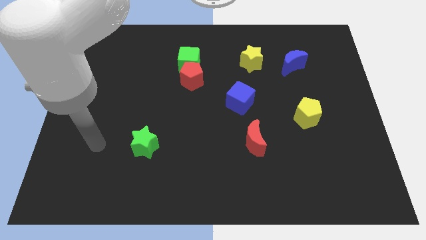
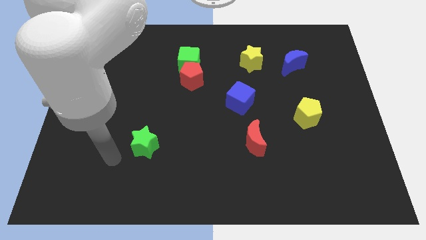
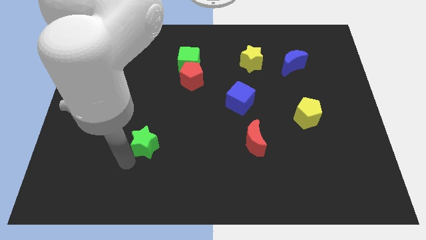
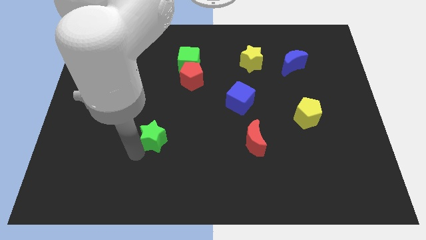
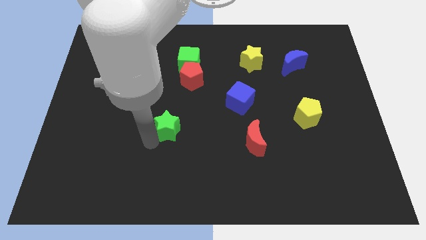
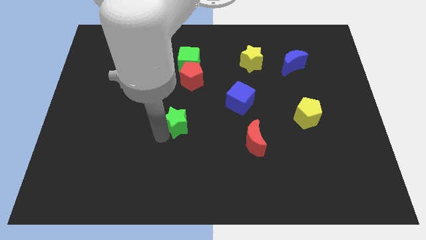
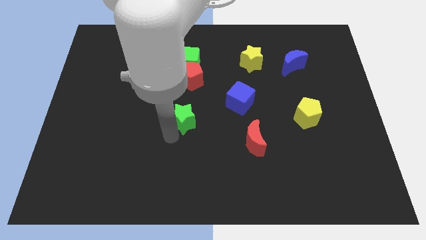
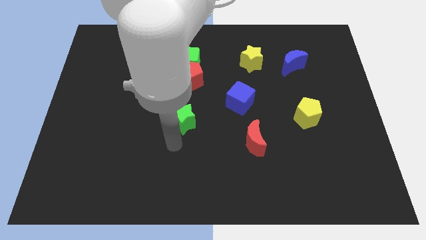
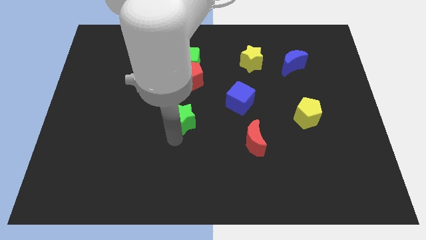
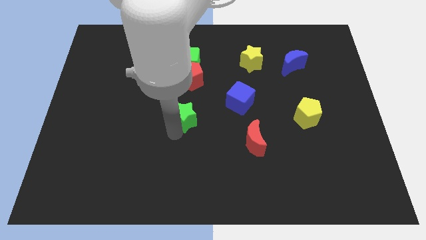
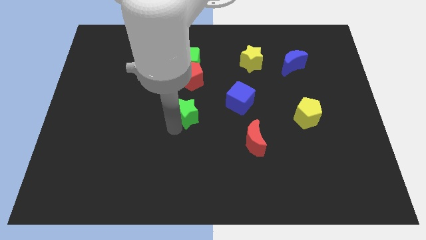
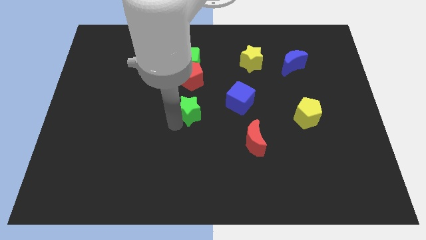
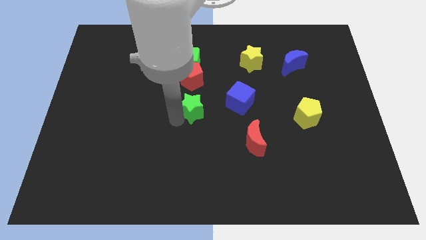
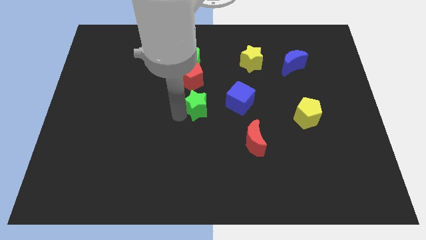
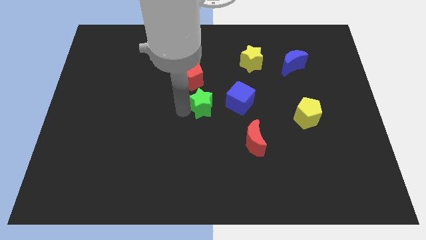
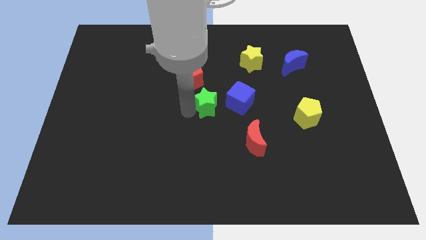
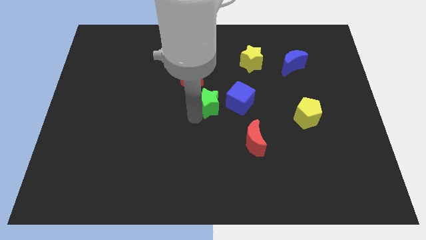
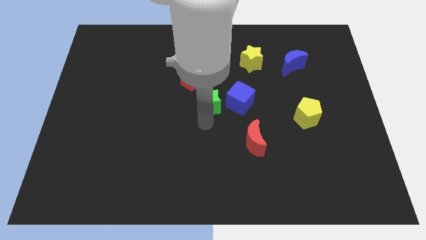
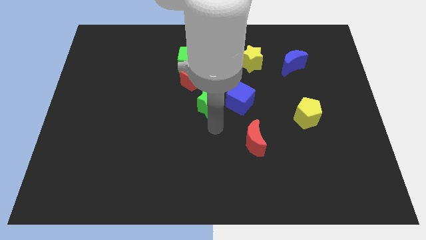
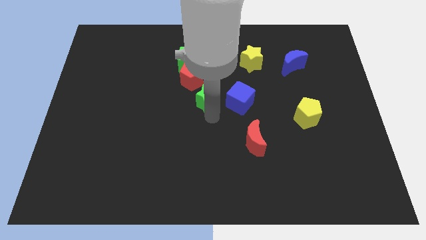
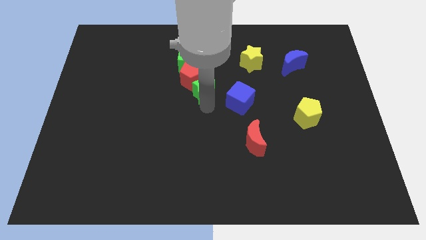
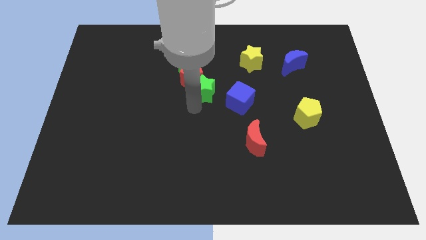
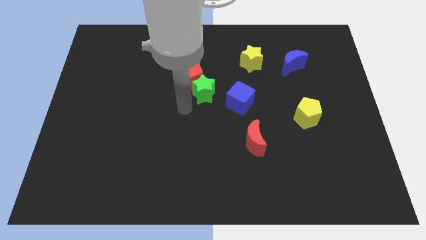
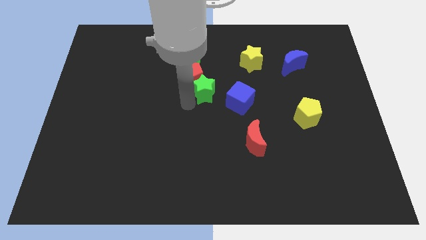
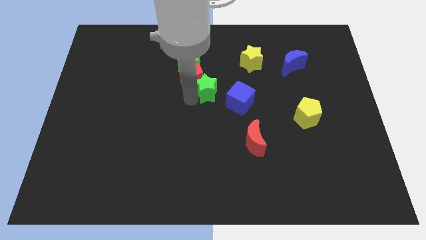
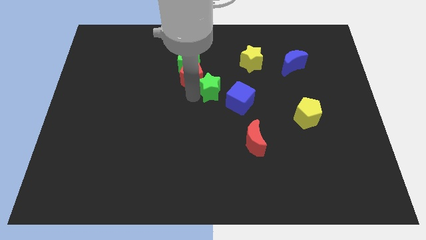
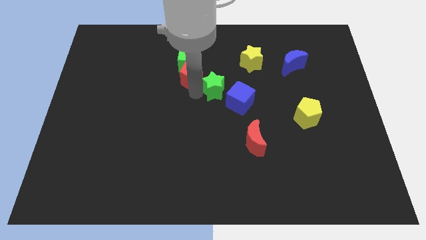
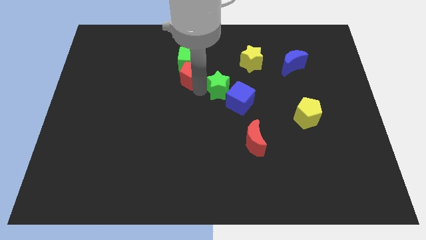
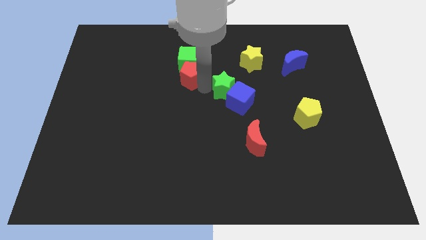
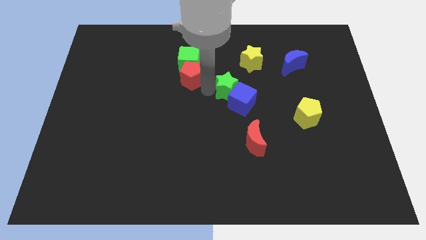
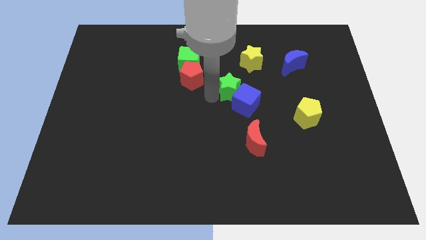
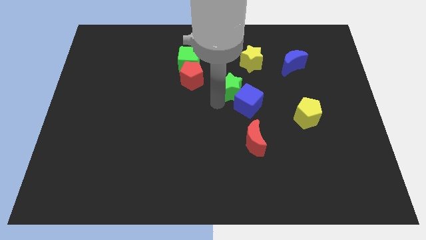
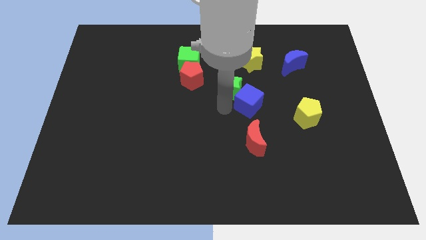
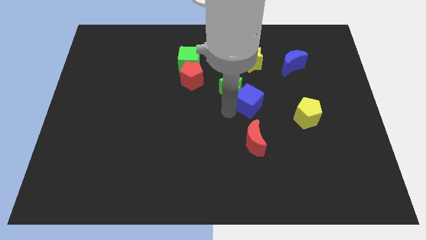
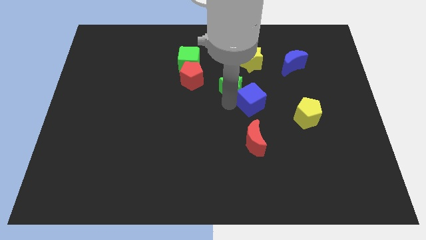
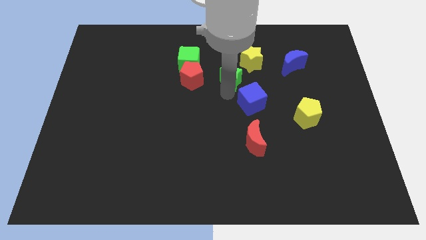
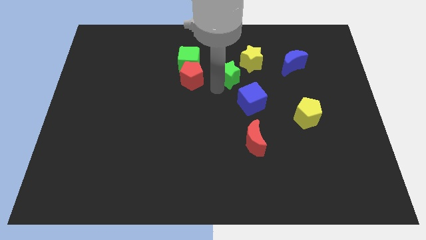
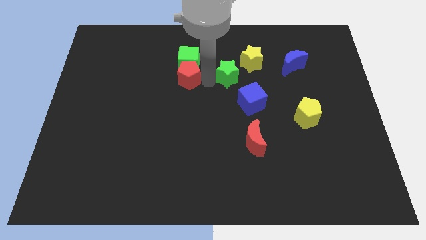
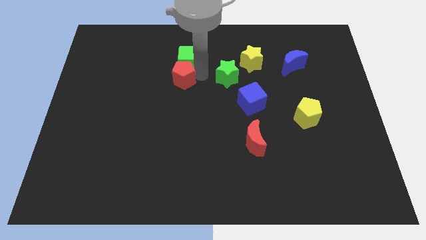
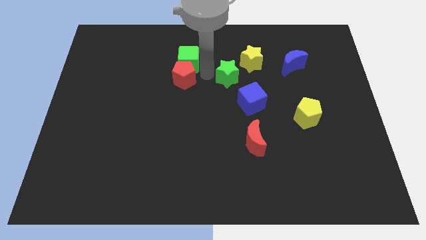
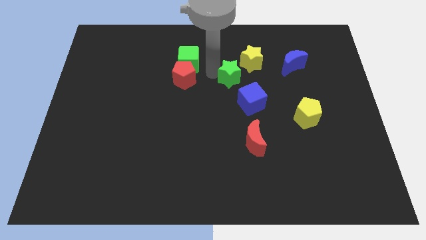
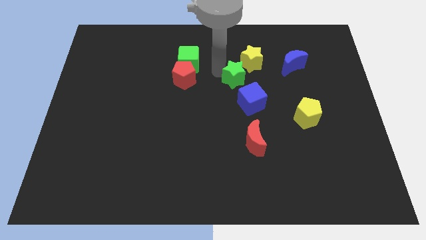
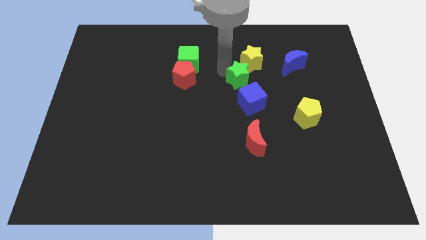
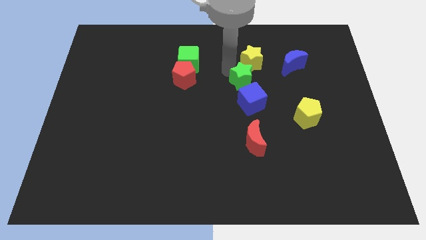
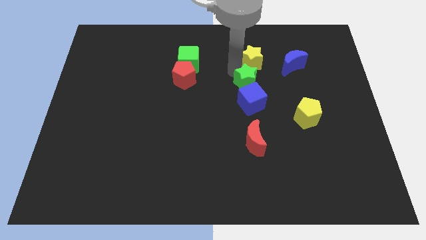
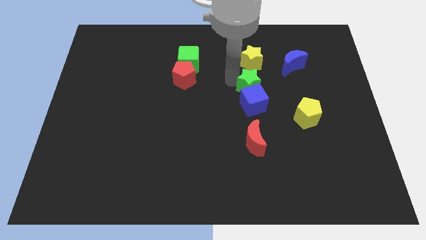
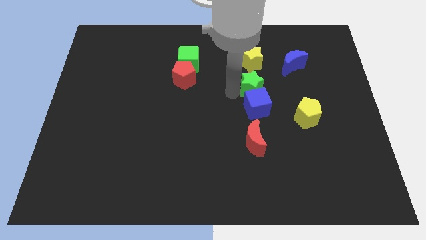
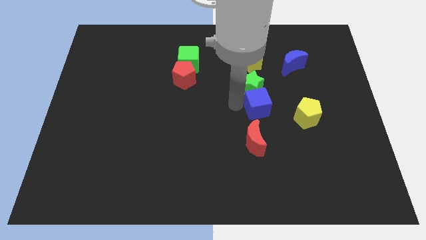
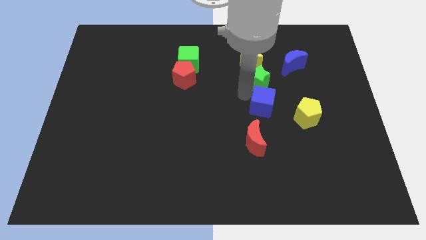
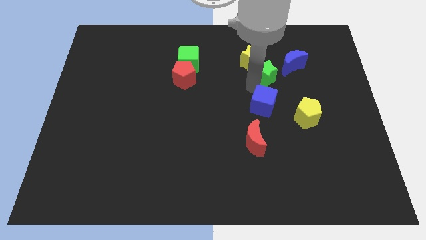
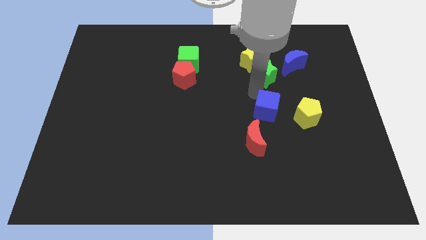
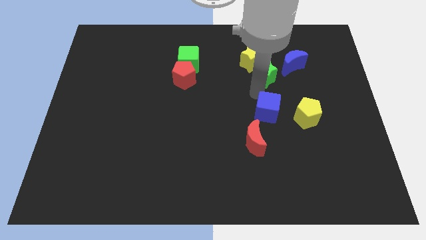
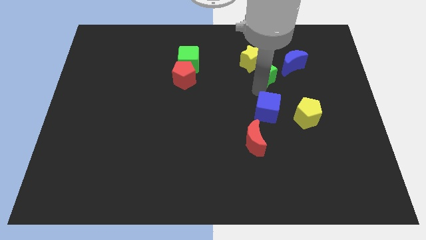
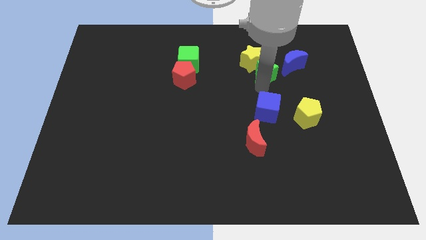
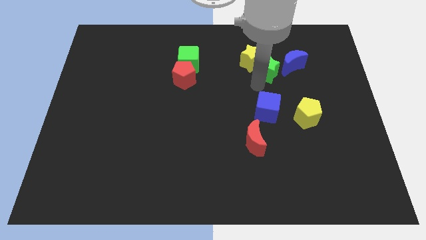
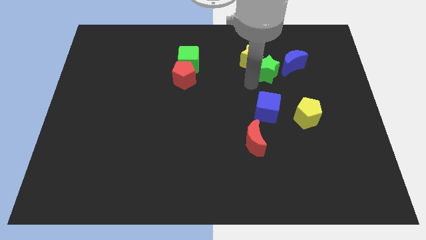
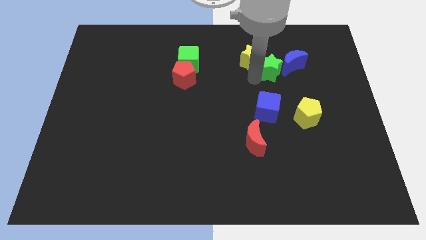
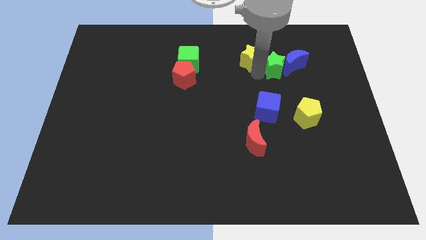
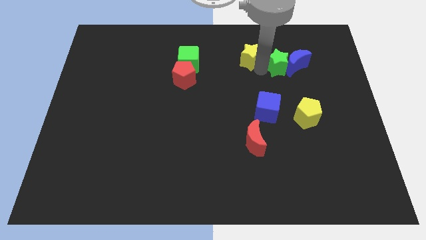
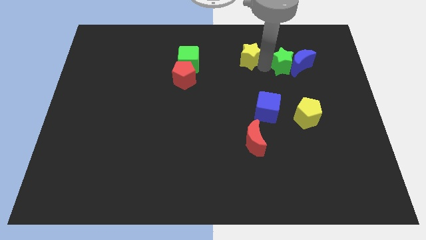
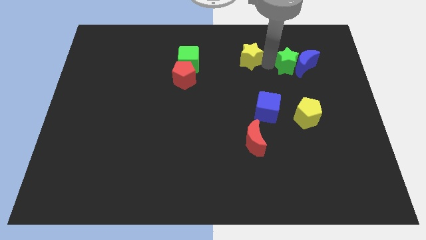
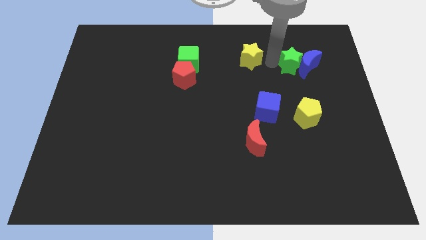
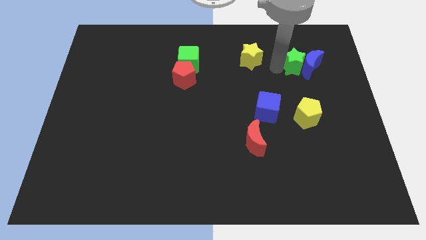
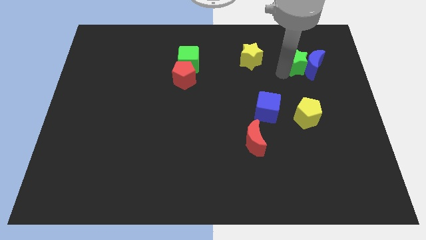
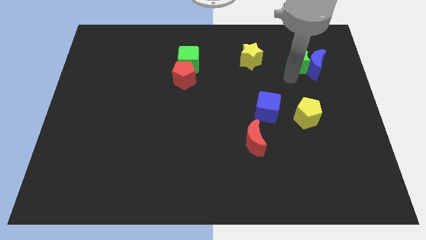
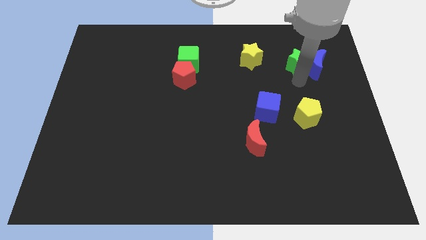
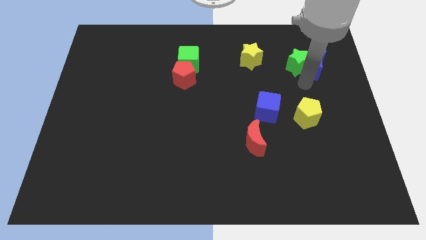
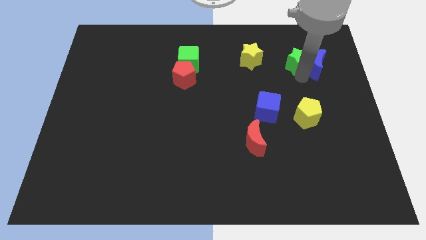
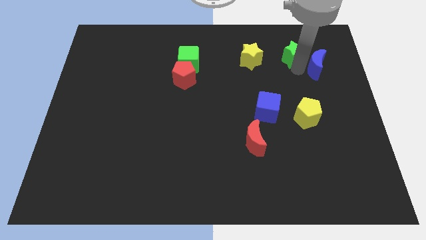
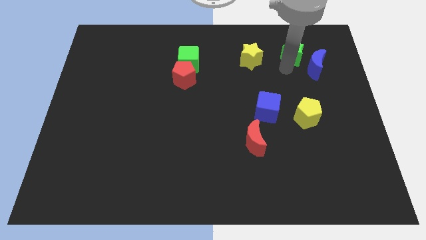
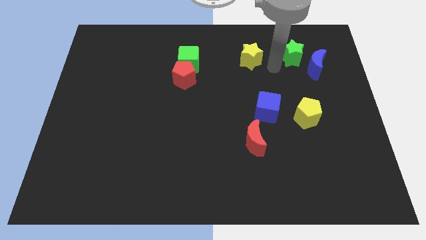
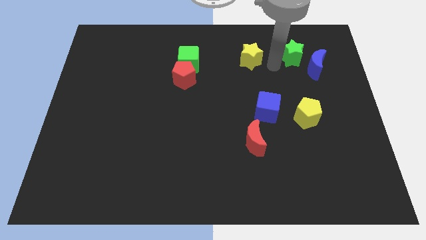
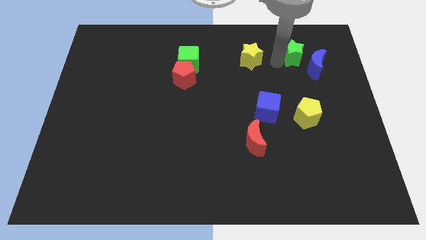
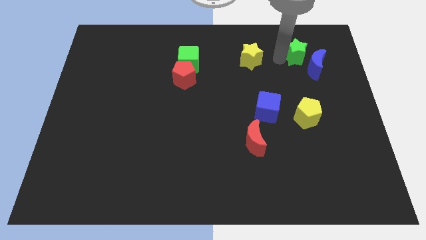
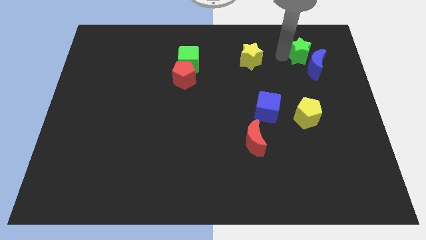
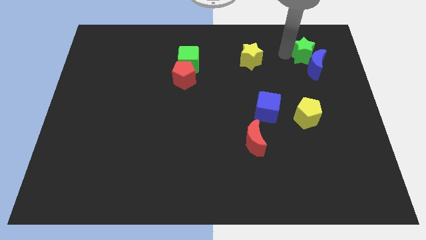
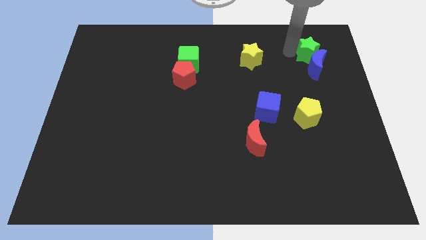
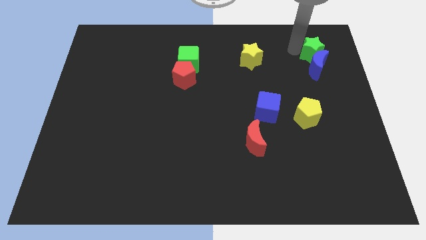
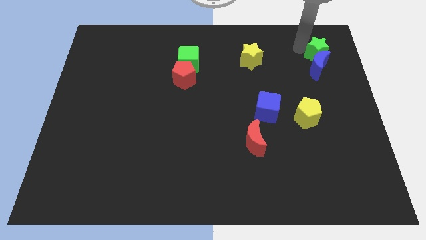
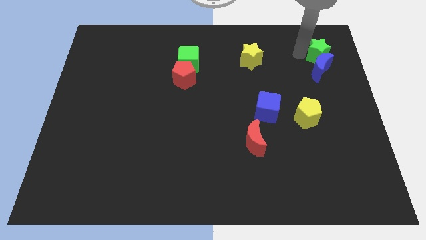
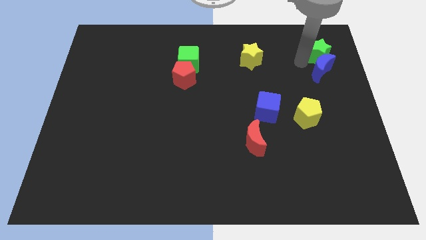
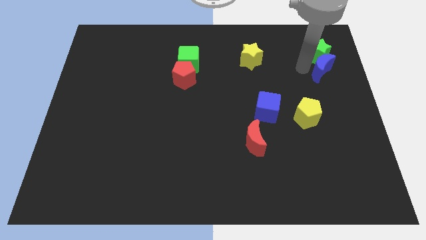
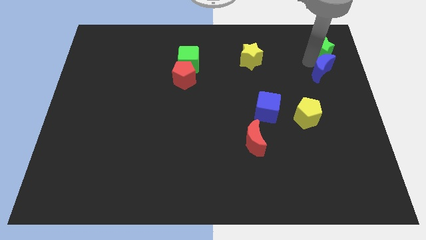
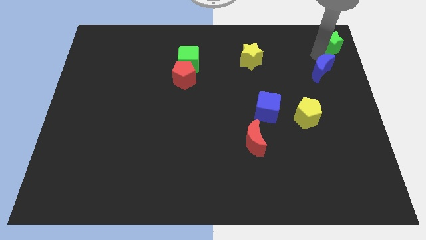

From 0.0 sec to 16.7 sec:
put the green star to the top right of the board
